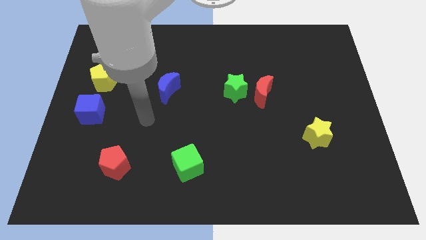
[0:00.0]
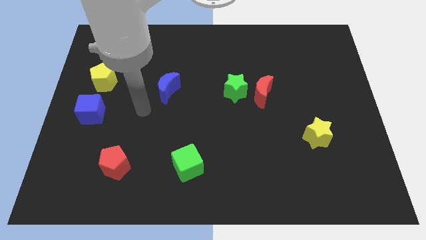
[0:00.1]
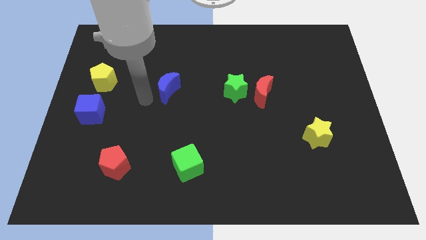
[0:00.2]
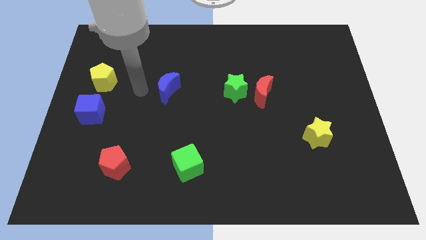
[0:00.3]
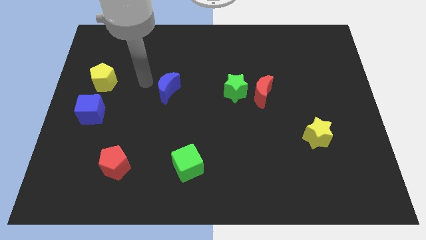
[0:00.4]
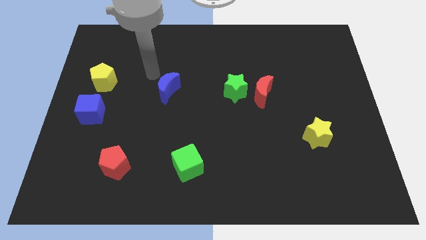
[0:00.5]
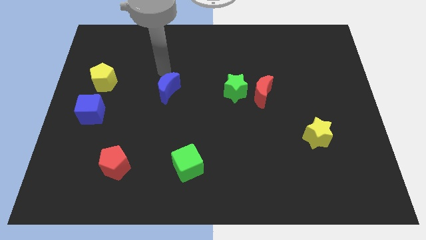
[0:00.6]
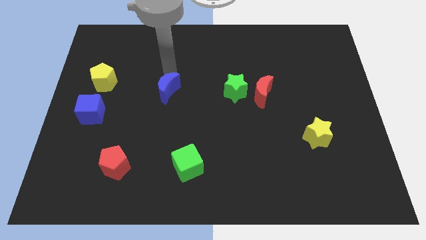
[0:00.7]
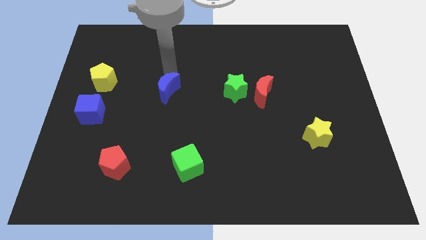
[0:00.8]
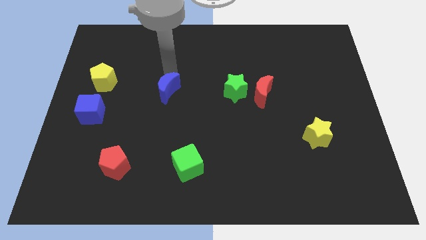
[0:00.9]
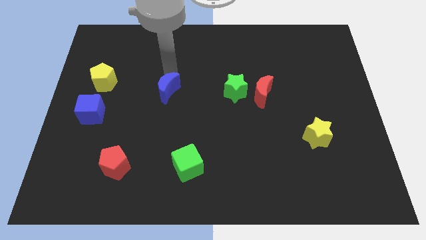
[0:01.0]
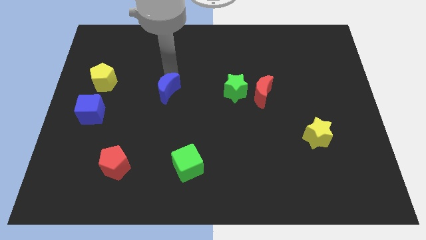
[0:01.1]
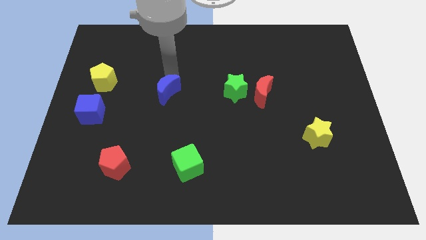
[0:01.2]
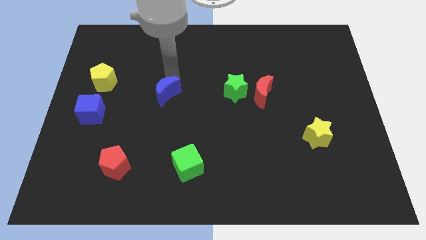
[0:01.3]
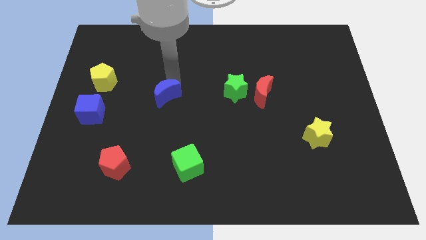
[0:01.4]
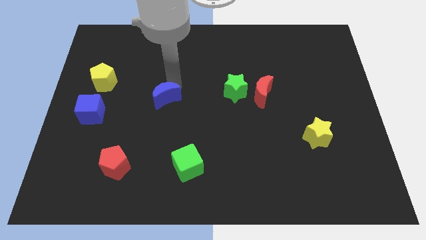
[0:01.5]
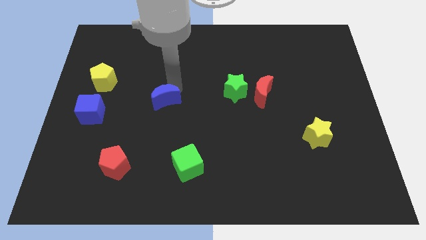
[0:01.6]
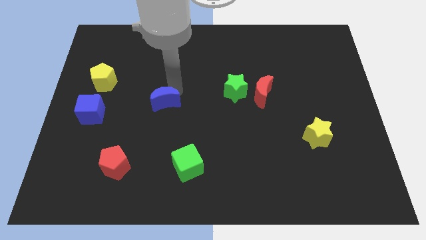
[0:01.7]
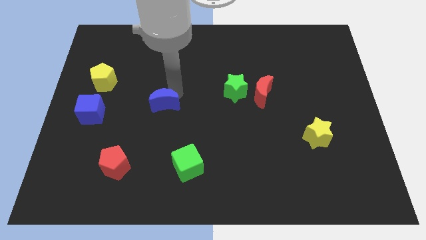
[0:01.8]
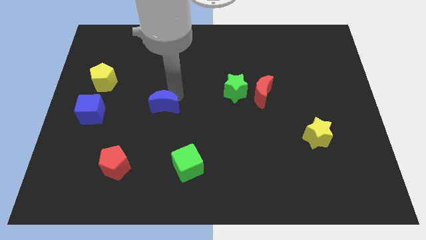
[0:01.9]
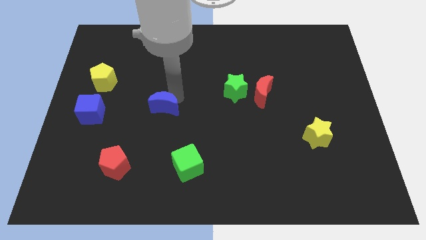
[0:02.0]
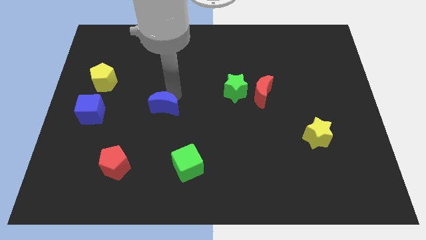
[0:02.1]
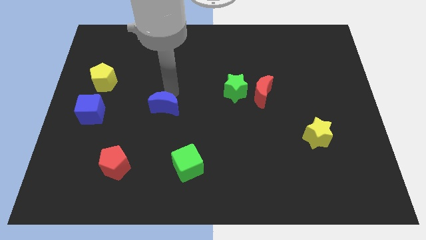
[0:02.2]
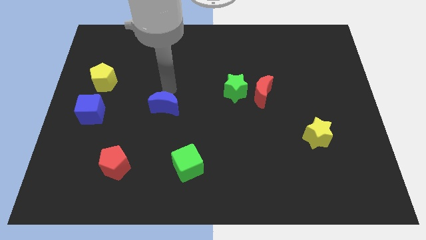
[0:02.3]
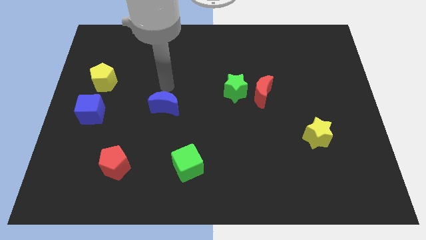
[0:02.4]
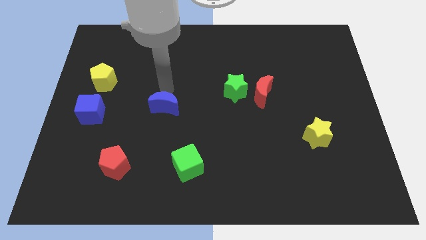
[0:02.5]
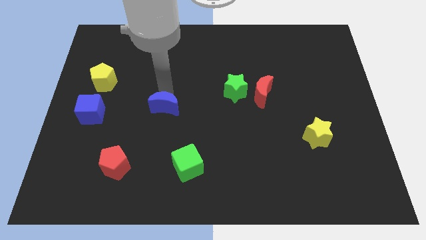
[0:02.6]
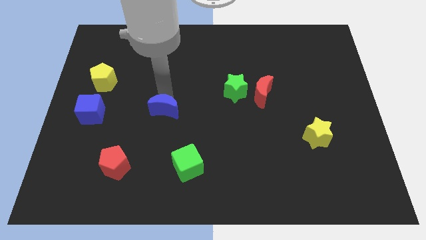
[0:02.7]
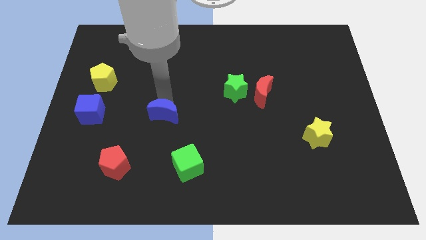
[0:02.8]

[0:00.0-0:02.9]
push the blue moon somewhat down

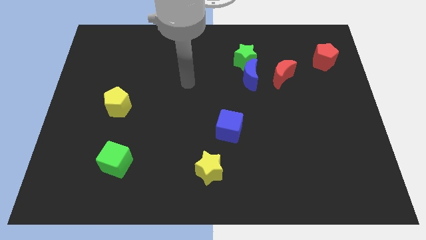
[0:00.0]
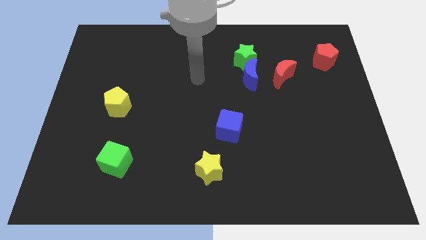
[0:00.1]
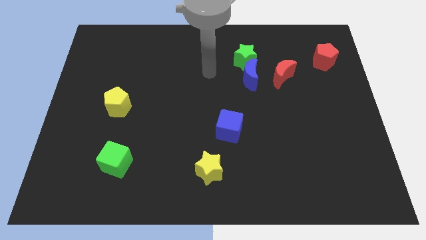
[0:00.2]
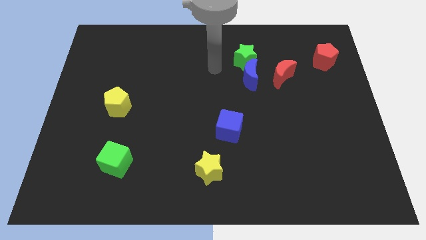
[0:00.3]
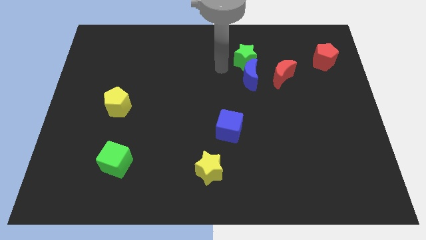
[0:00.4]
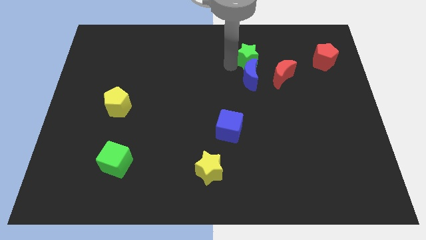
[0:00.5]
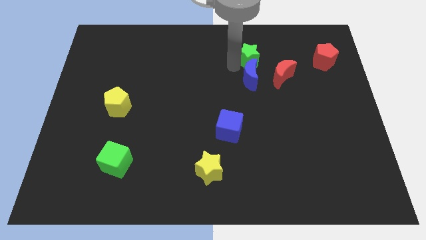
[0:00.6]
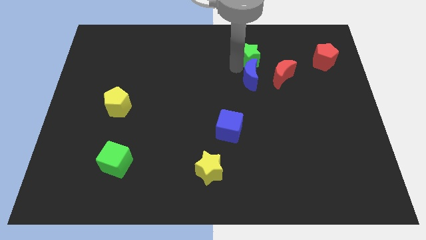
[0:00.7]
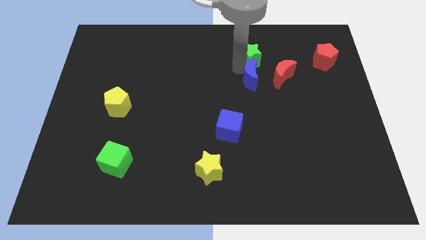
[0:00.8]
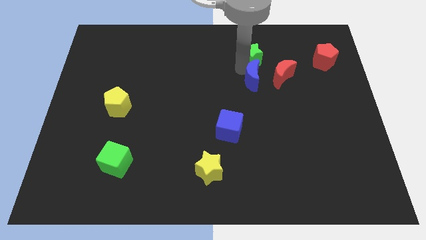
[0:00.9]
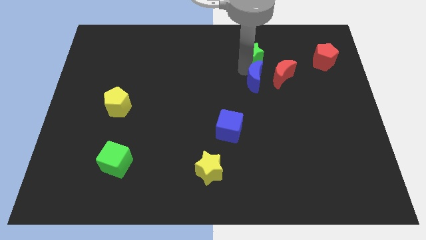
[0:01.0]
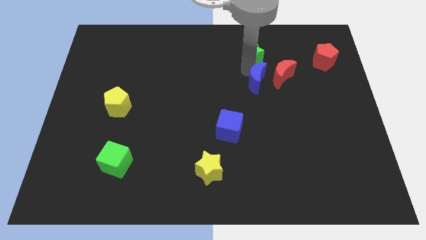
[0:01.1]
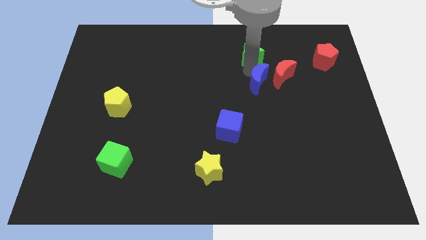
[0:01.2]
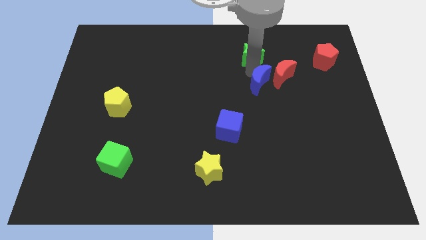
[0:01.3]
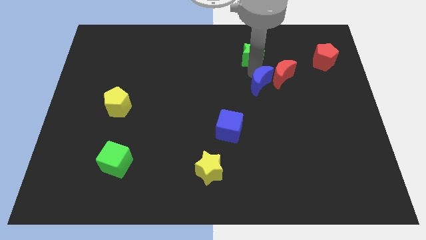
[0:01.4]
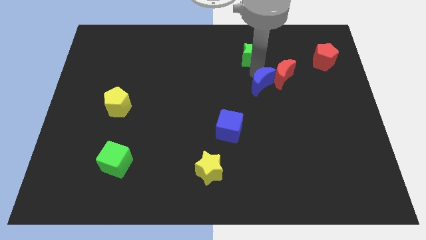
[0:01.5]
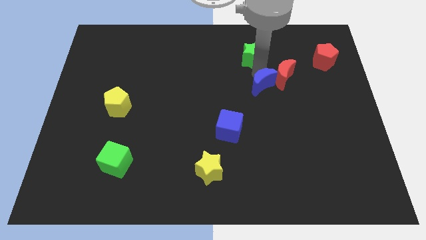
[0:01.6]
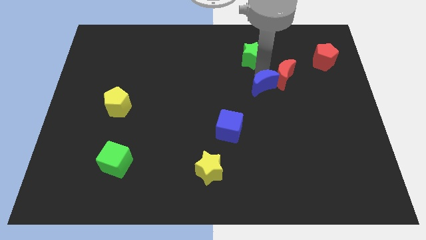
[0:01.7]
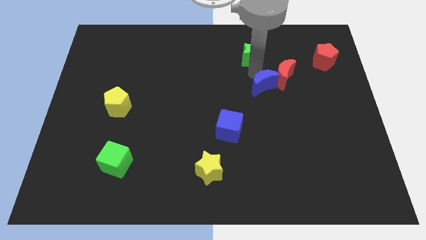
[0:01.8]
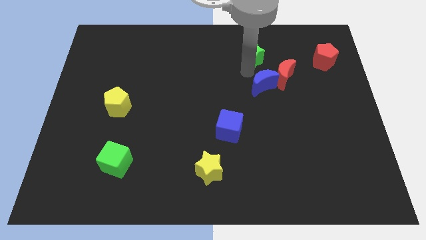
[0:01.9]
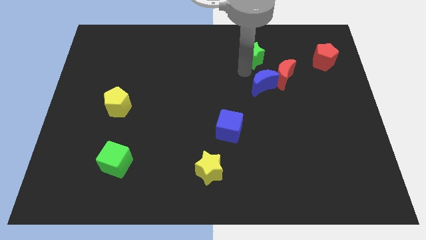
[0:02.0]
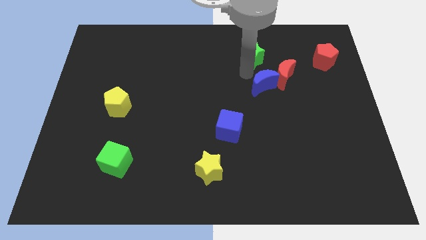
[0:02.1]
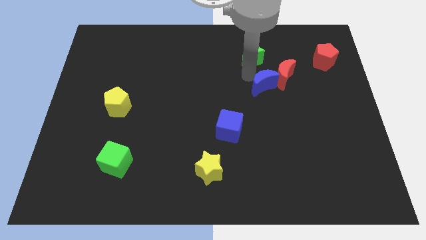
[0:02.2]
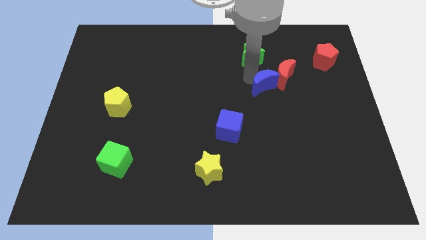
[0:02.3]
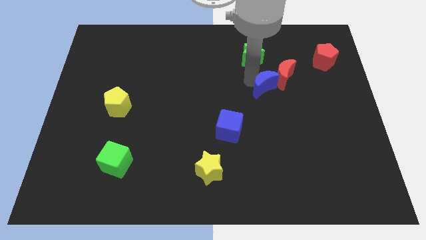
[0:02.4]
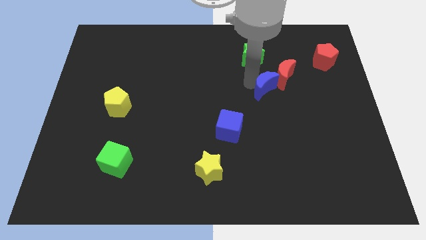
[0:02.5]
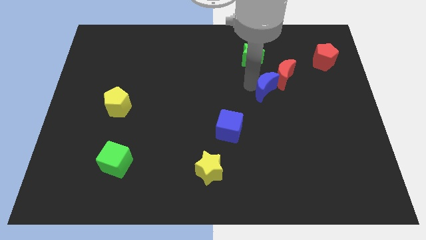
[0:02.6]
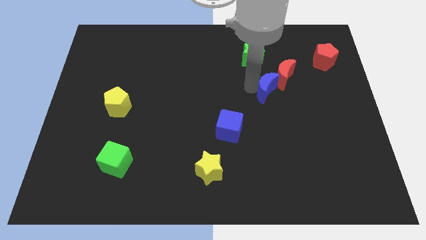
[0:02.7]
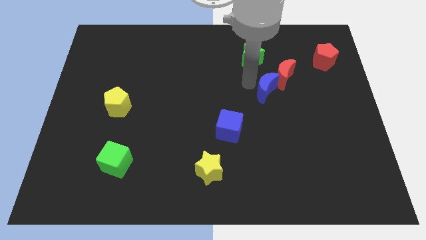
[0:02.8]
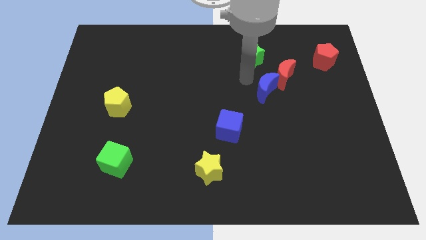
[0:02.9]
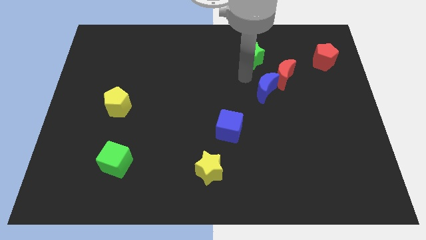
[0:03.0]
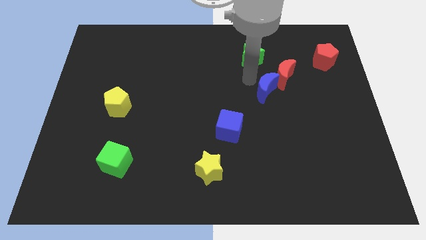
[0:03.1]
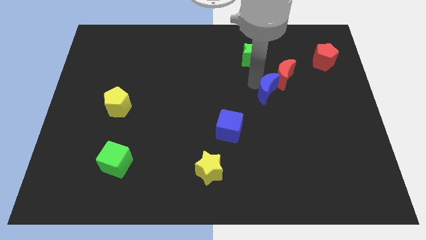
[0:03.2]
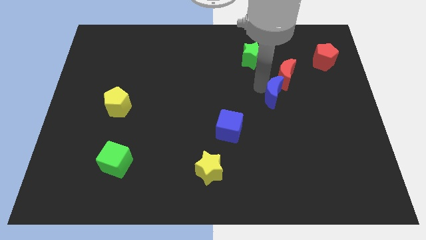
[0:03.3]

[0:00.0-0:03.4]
slightly move the blue moon downwards and right

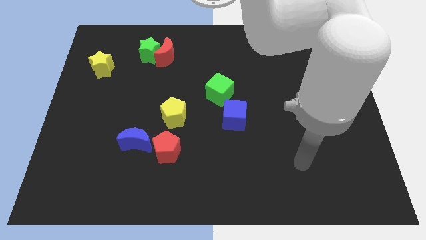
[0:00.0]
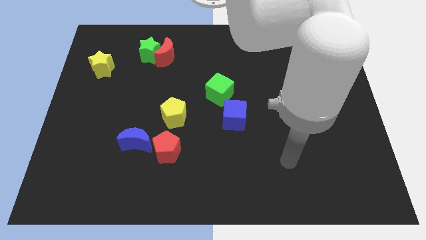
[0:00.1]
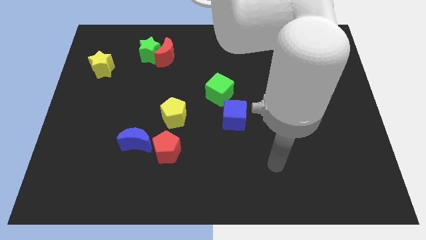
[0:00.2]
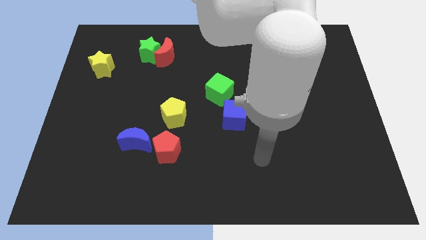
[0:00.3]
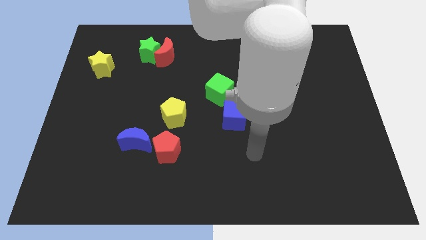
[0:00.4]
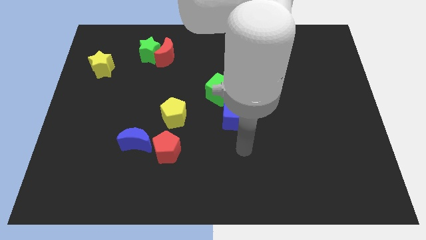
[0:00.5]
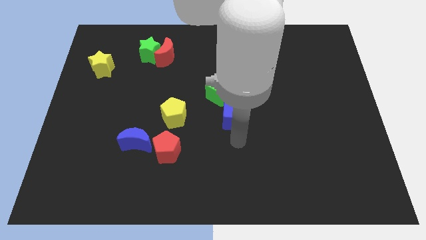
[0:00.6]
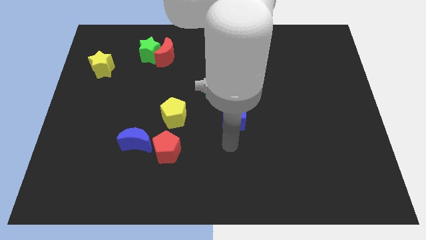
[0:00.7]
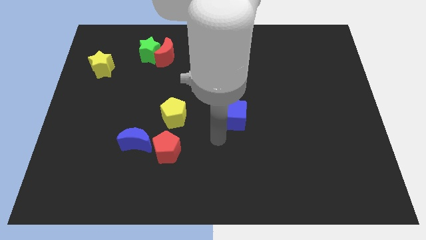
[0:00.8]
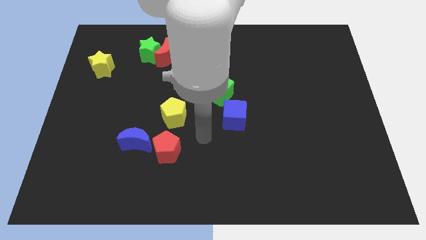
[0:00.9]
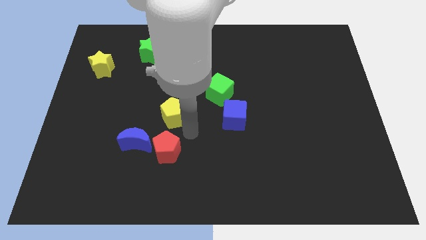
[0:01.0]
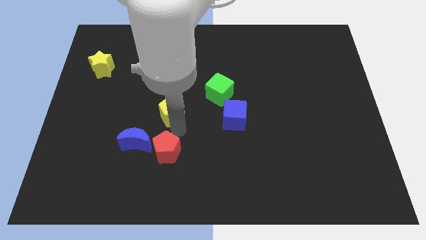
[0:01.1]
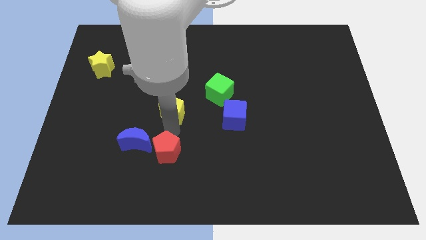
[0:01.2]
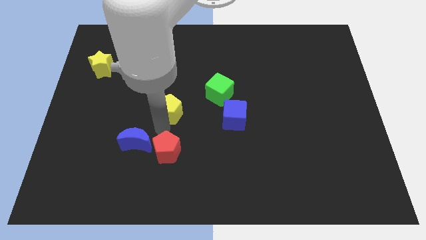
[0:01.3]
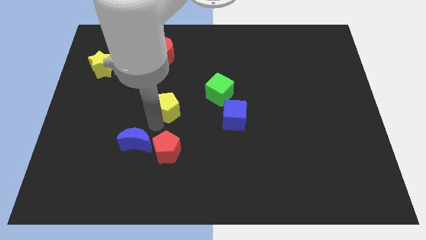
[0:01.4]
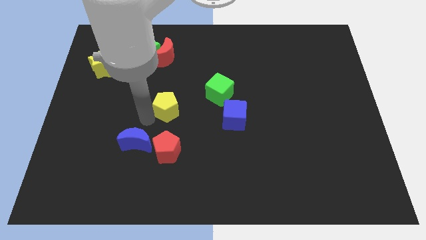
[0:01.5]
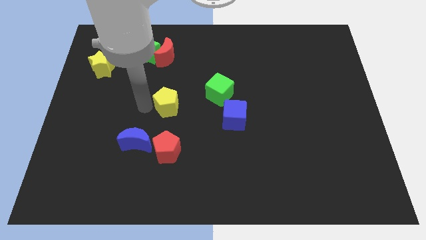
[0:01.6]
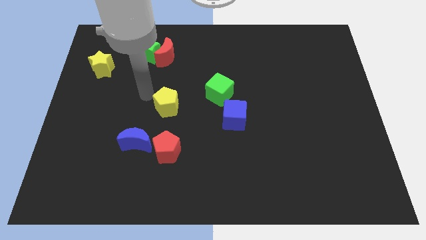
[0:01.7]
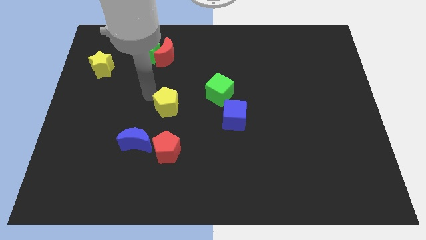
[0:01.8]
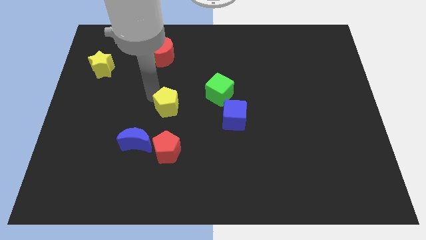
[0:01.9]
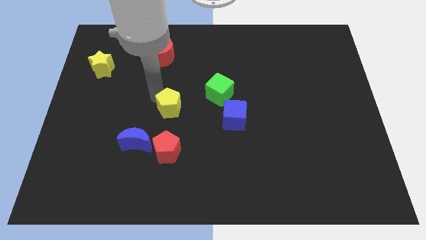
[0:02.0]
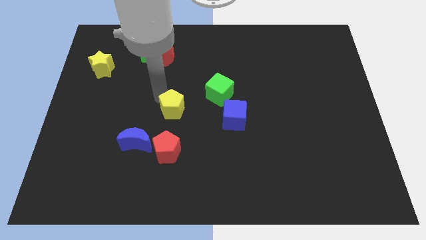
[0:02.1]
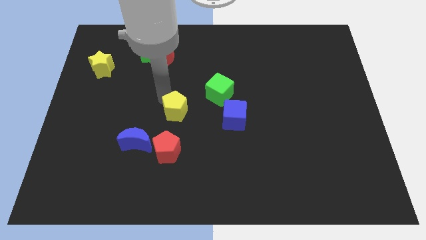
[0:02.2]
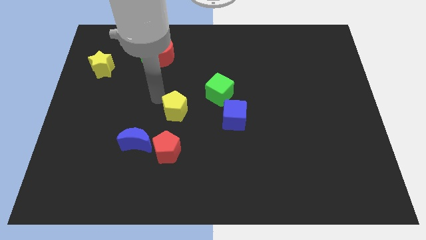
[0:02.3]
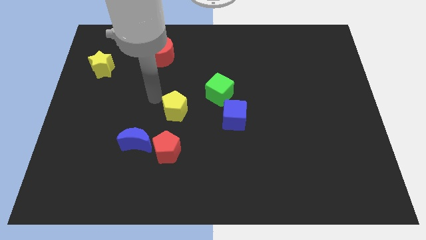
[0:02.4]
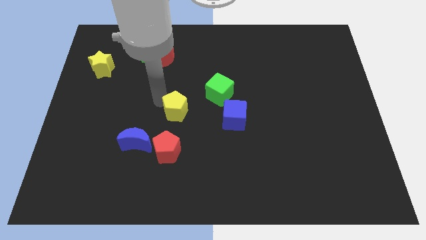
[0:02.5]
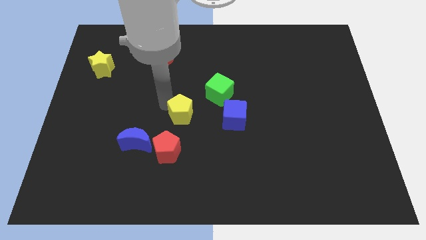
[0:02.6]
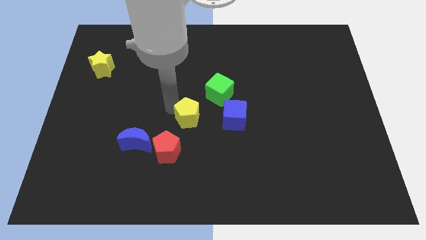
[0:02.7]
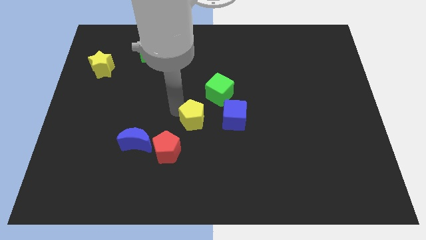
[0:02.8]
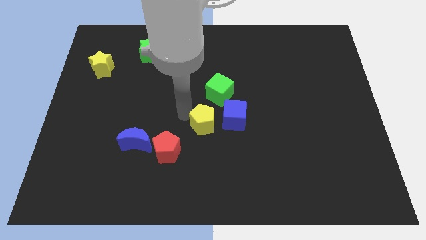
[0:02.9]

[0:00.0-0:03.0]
move the yellow pentagon right somewhat
